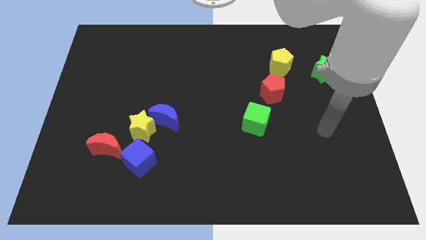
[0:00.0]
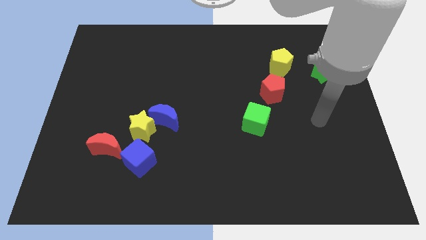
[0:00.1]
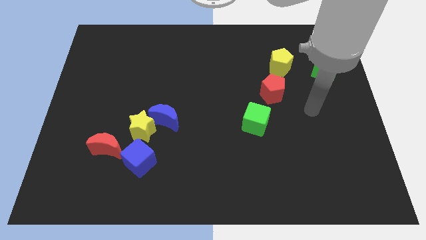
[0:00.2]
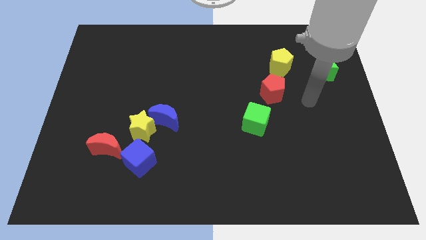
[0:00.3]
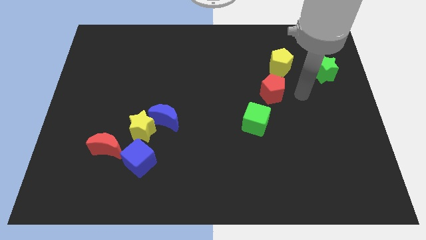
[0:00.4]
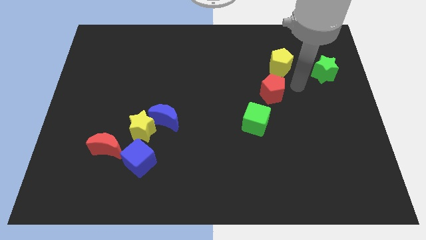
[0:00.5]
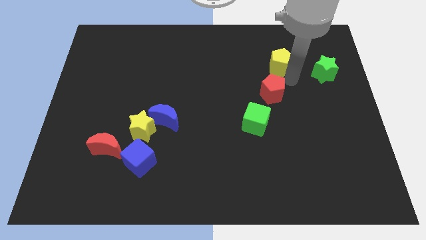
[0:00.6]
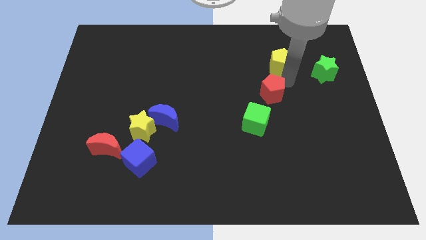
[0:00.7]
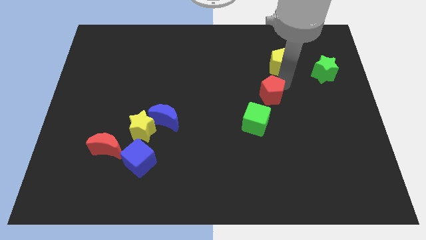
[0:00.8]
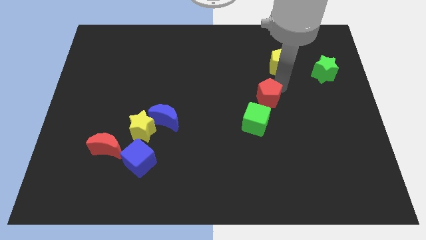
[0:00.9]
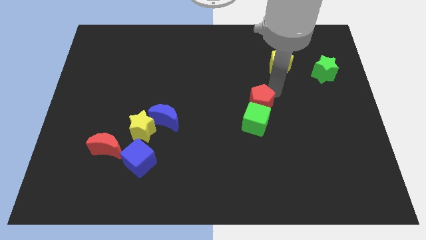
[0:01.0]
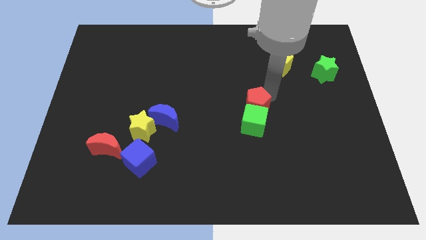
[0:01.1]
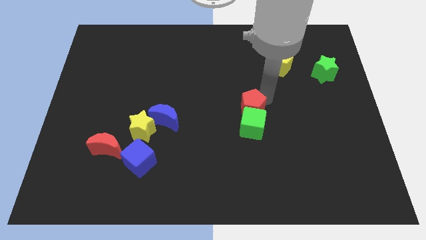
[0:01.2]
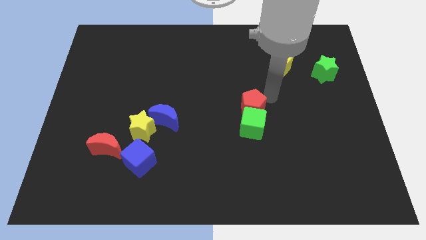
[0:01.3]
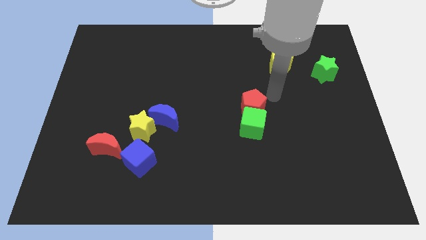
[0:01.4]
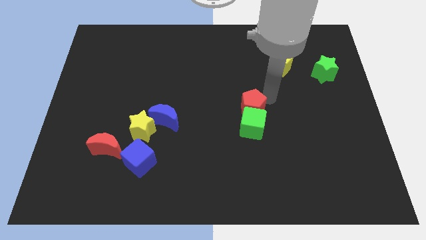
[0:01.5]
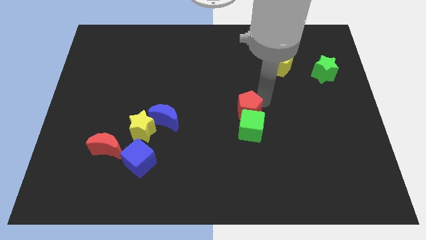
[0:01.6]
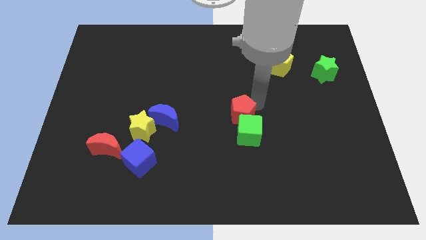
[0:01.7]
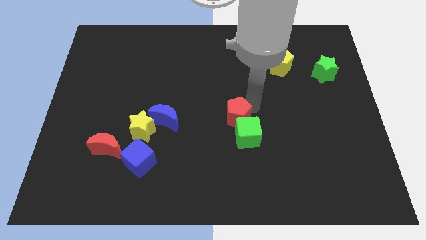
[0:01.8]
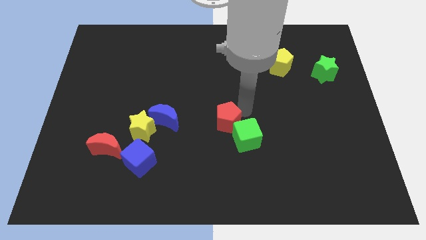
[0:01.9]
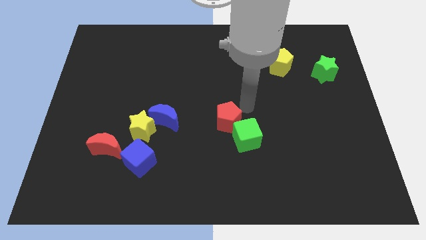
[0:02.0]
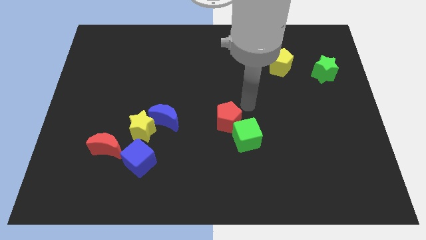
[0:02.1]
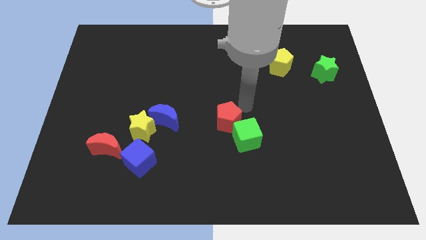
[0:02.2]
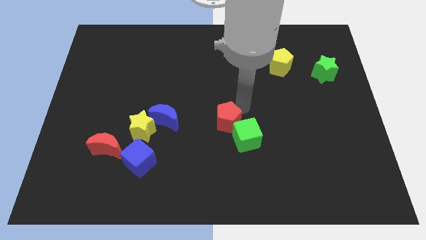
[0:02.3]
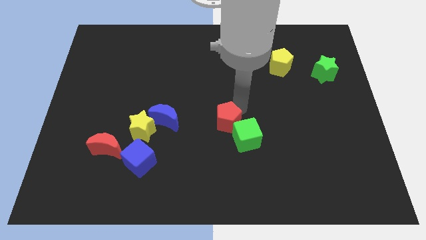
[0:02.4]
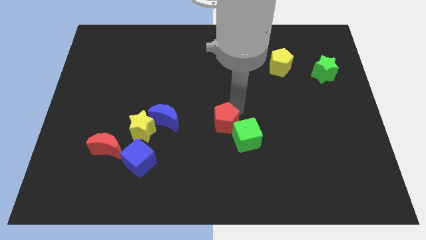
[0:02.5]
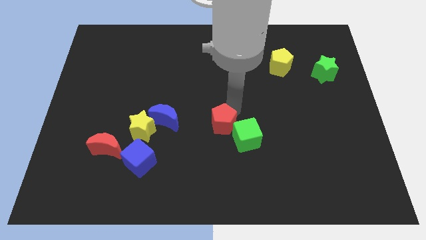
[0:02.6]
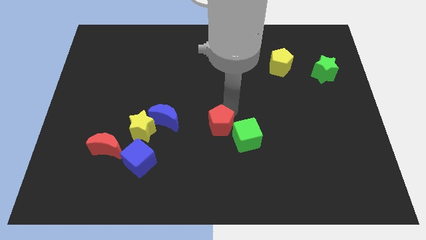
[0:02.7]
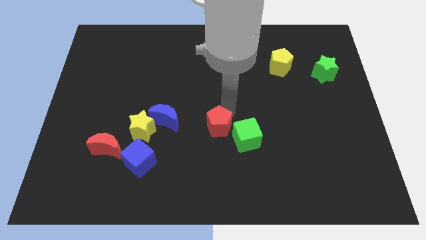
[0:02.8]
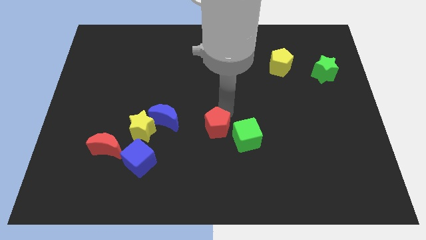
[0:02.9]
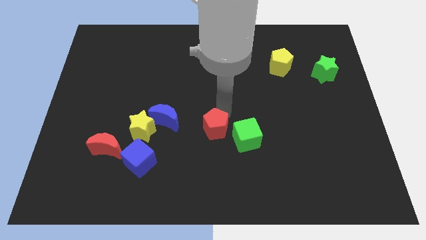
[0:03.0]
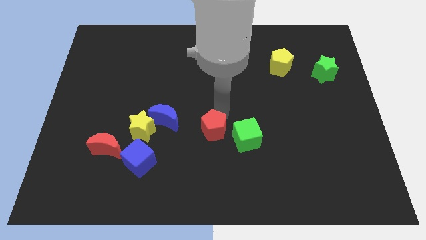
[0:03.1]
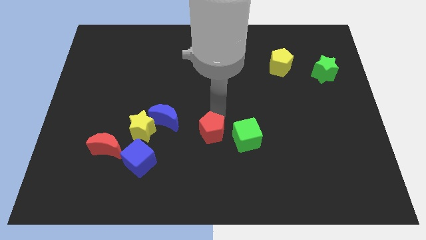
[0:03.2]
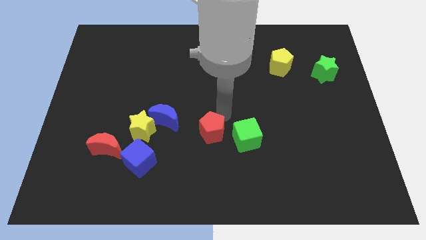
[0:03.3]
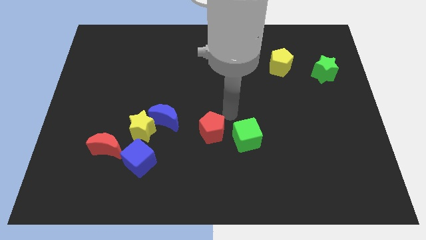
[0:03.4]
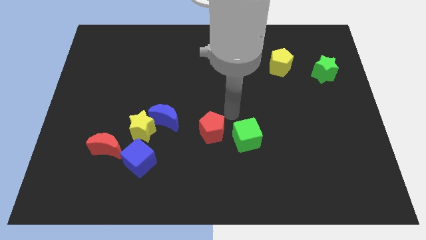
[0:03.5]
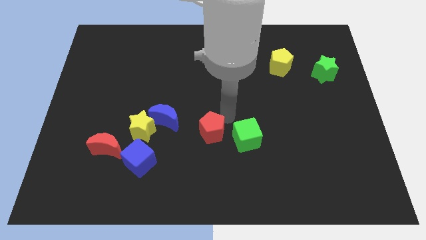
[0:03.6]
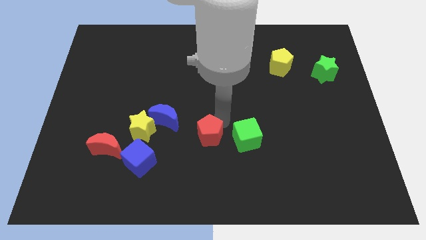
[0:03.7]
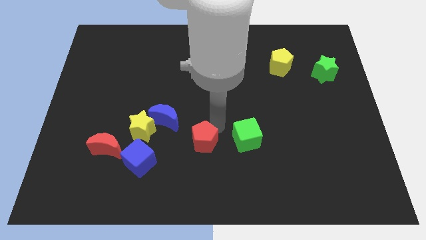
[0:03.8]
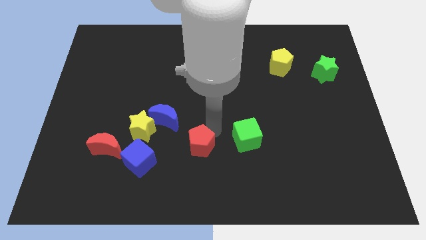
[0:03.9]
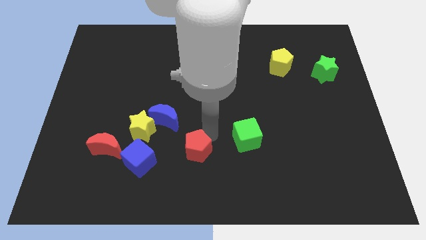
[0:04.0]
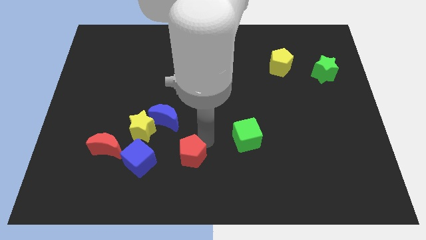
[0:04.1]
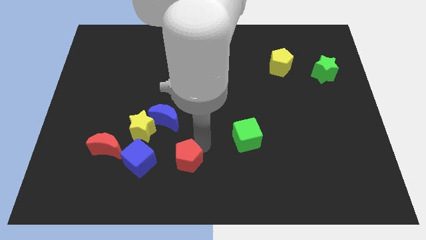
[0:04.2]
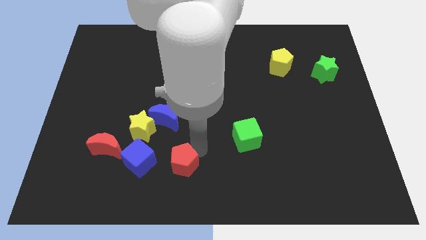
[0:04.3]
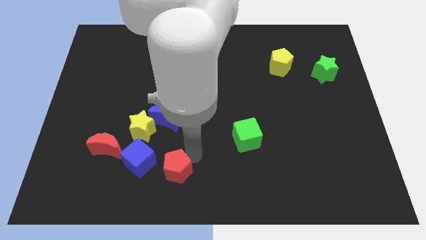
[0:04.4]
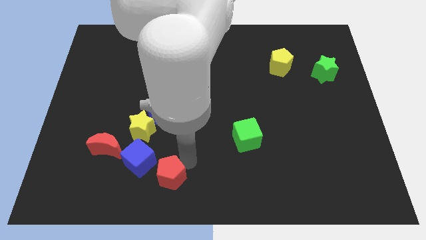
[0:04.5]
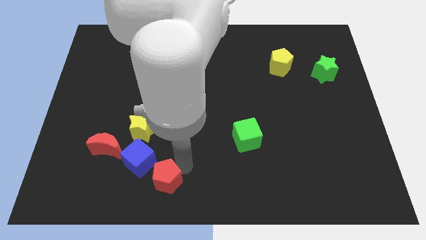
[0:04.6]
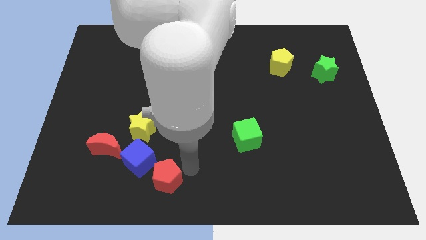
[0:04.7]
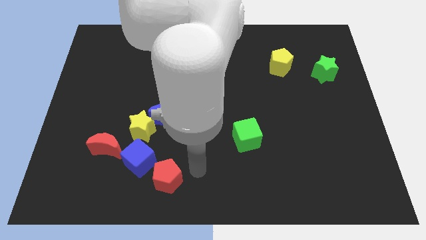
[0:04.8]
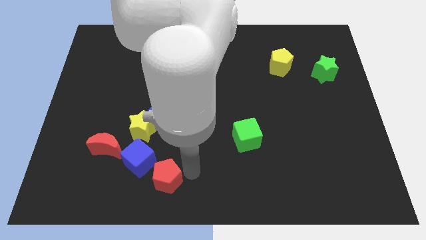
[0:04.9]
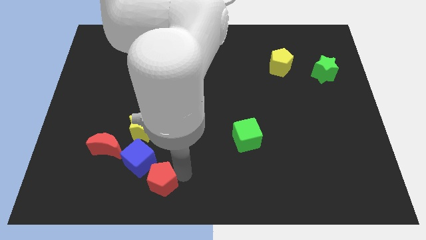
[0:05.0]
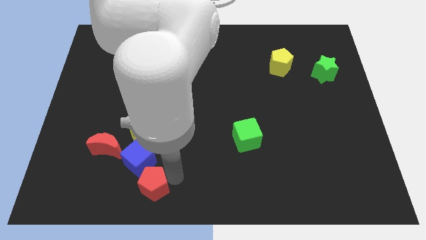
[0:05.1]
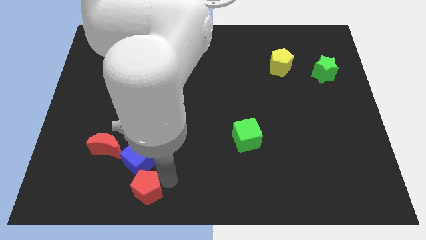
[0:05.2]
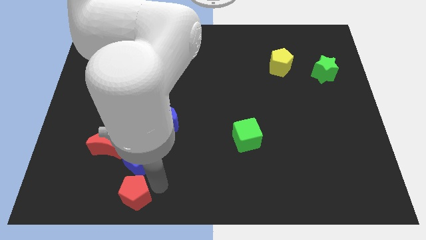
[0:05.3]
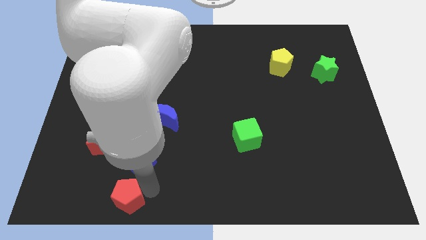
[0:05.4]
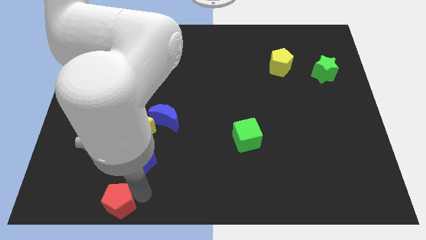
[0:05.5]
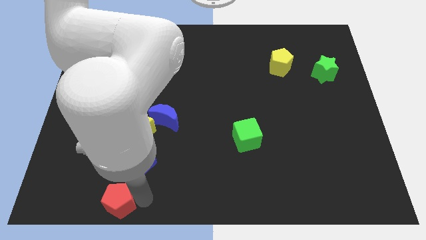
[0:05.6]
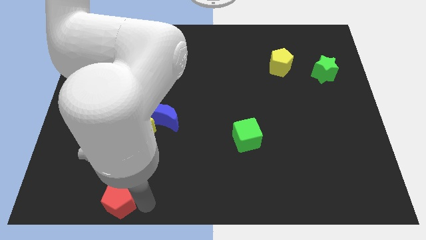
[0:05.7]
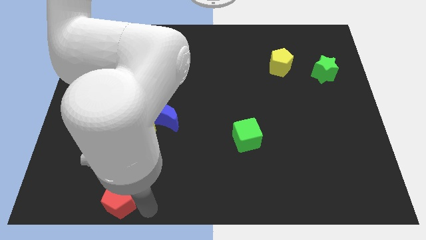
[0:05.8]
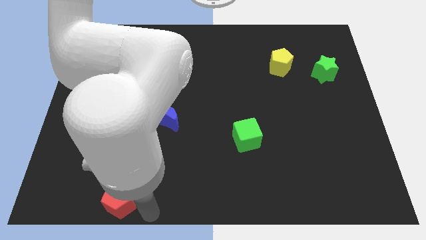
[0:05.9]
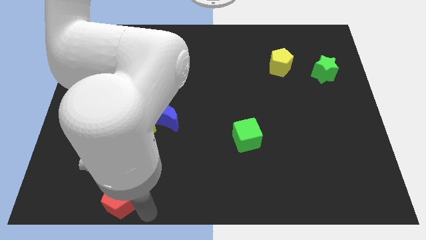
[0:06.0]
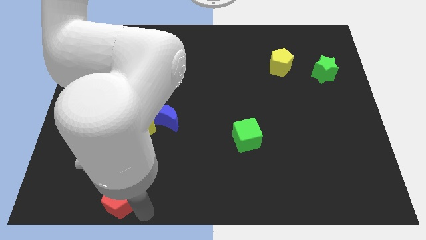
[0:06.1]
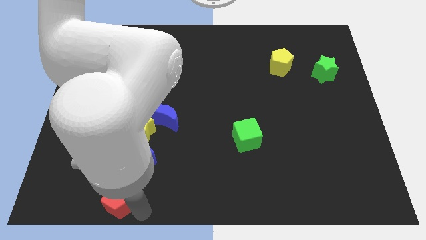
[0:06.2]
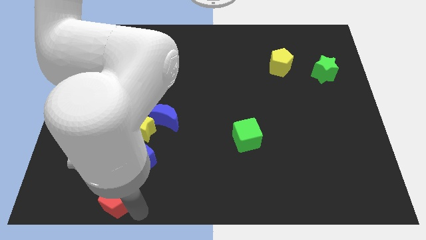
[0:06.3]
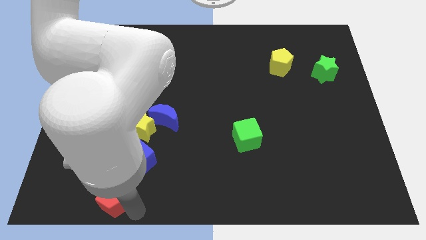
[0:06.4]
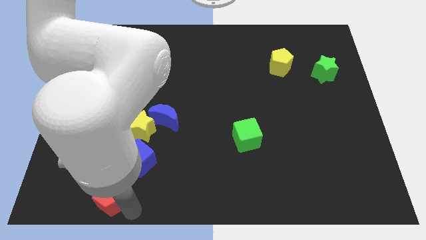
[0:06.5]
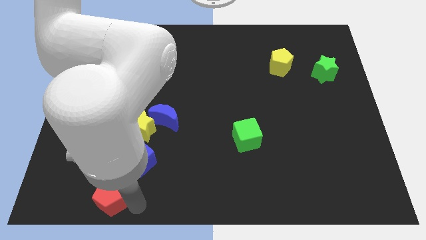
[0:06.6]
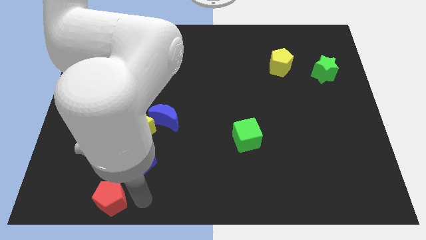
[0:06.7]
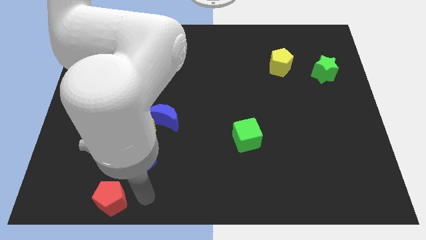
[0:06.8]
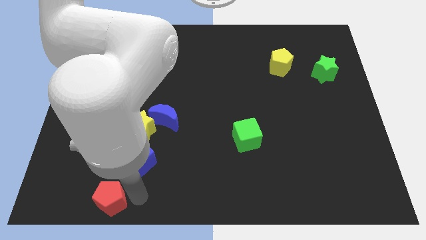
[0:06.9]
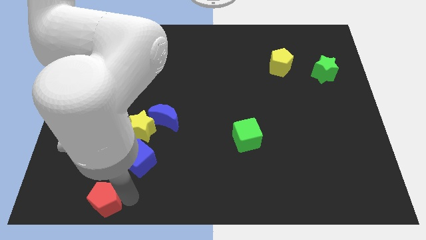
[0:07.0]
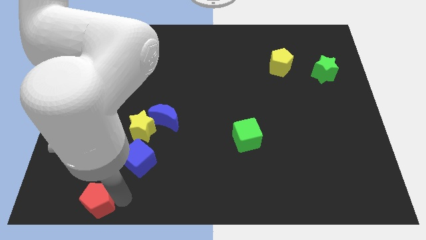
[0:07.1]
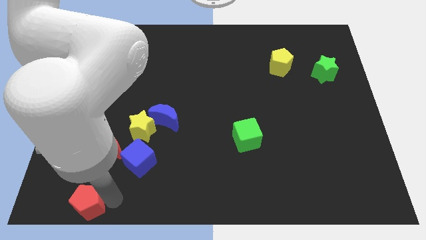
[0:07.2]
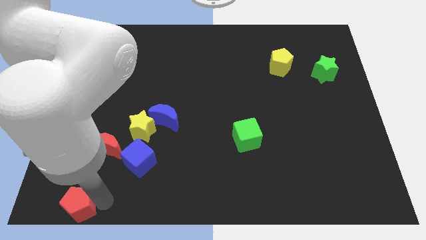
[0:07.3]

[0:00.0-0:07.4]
push the red pentagon to the lower left corner
